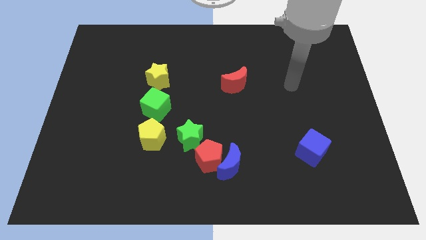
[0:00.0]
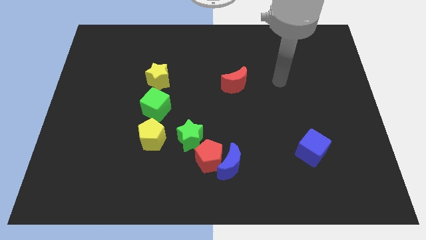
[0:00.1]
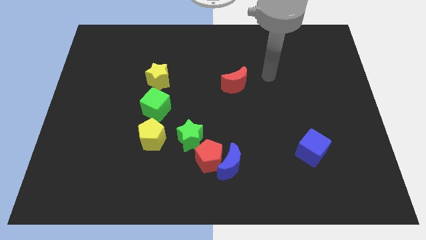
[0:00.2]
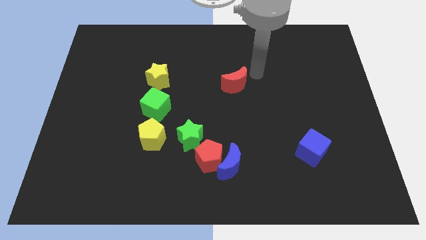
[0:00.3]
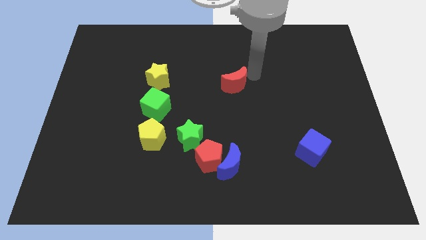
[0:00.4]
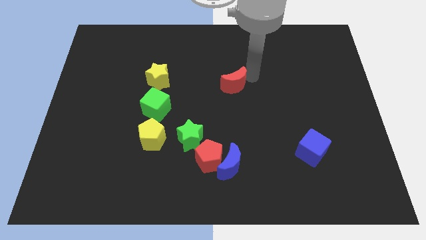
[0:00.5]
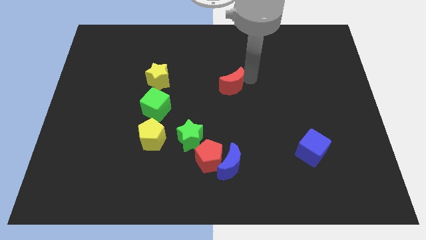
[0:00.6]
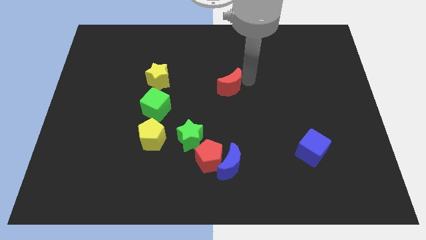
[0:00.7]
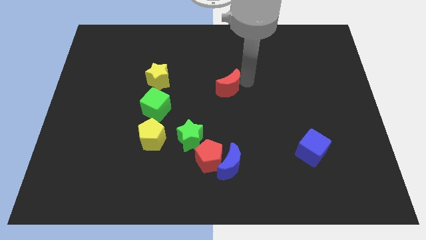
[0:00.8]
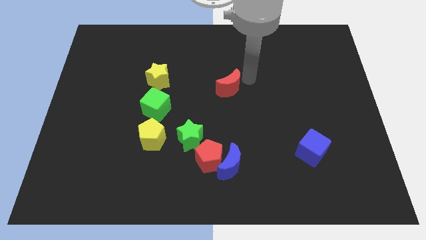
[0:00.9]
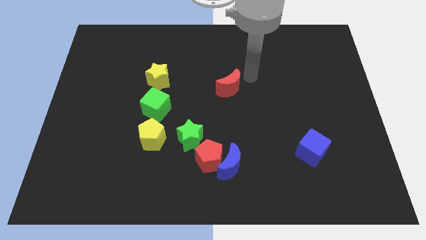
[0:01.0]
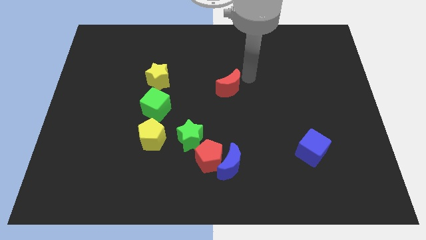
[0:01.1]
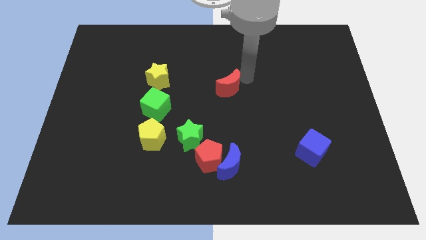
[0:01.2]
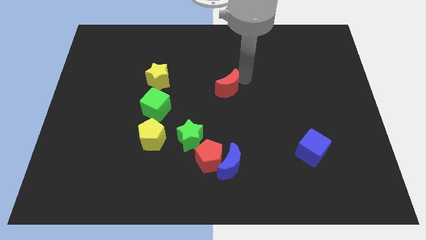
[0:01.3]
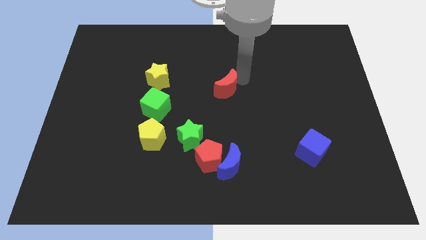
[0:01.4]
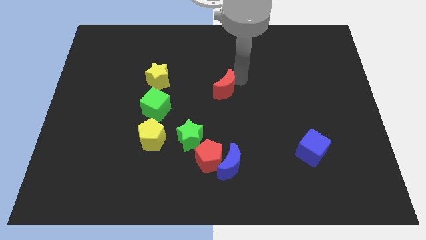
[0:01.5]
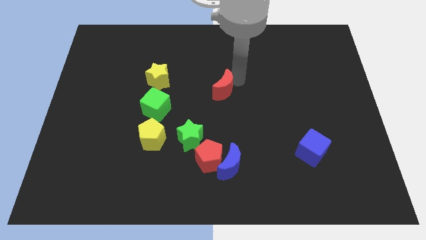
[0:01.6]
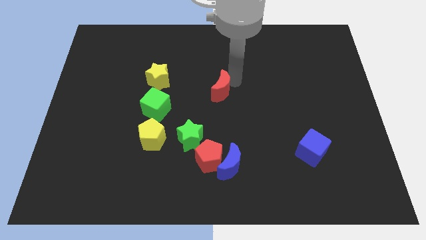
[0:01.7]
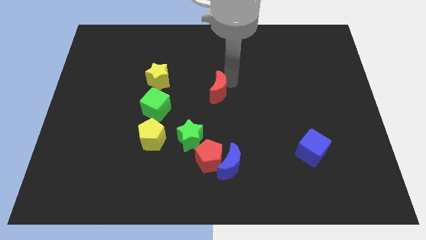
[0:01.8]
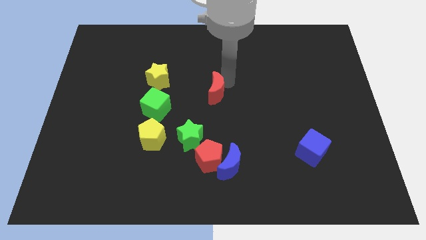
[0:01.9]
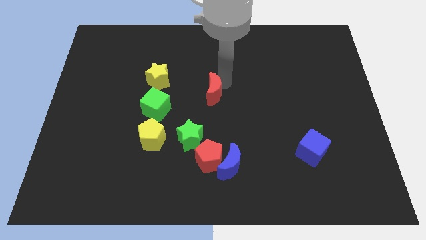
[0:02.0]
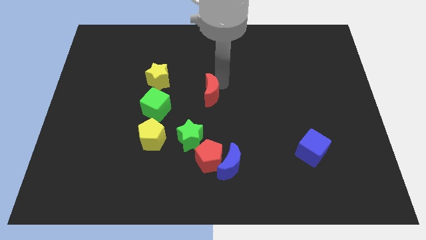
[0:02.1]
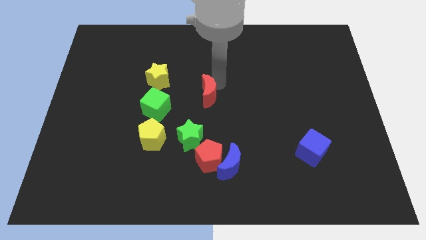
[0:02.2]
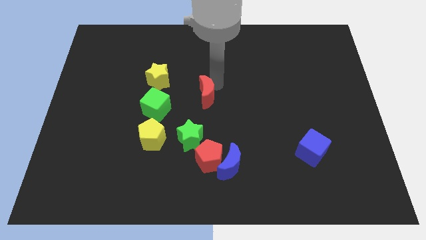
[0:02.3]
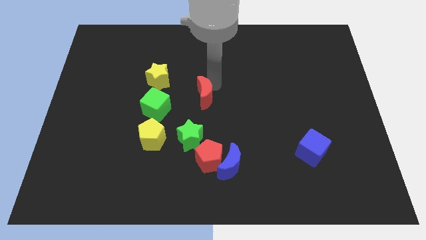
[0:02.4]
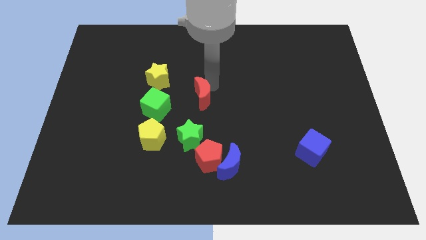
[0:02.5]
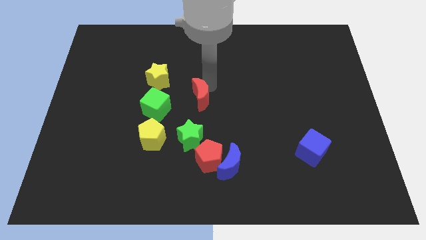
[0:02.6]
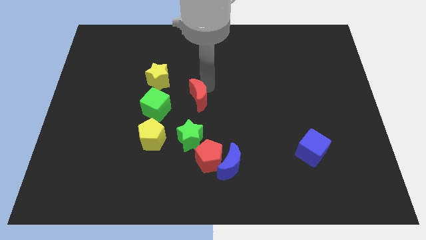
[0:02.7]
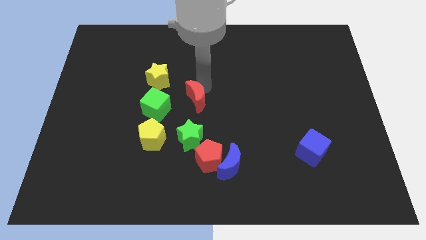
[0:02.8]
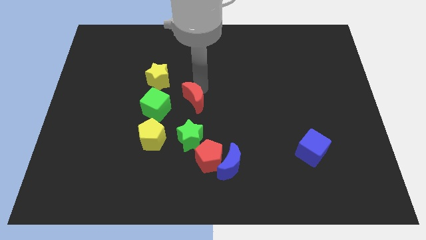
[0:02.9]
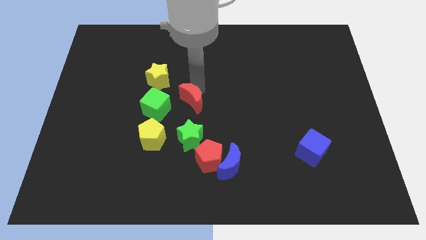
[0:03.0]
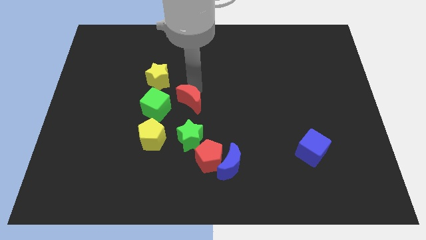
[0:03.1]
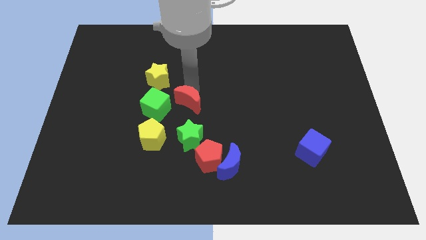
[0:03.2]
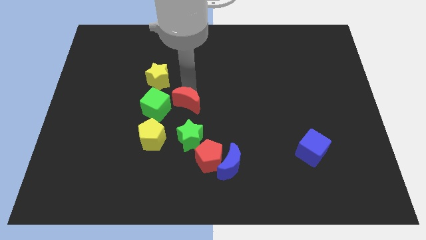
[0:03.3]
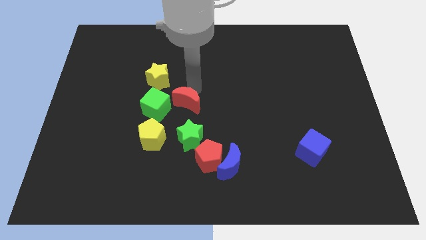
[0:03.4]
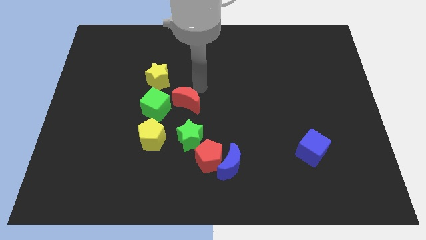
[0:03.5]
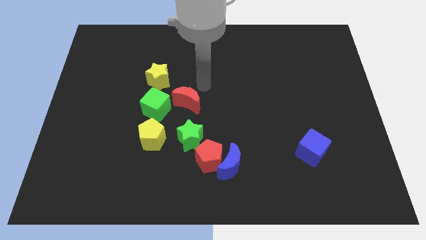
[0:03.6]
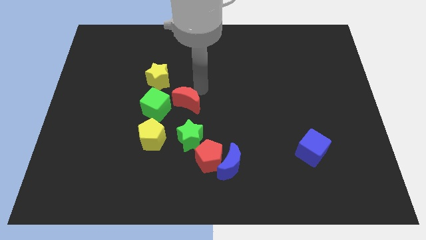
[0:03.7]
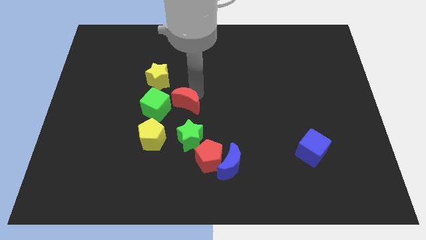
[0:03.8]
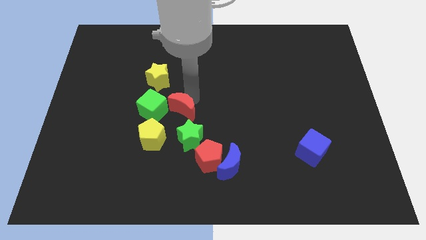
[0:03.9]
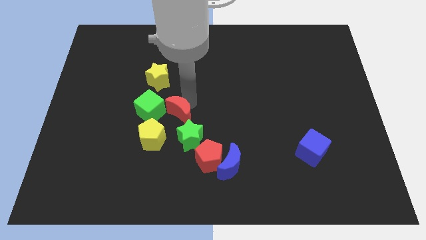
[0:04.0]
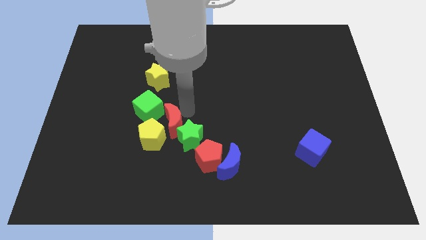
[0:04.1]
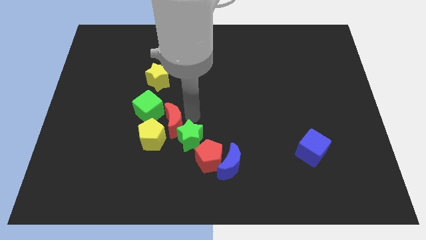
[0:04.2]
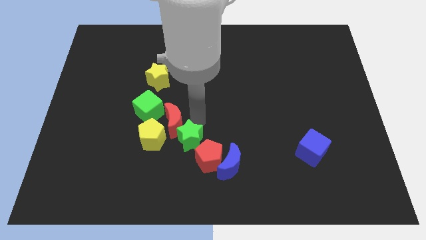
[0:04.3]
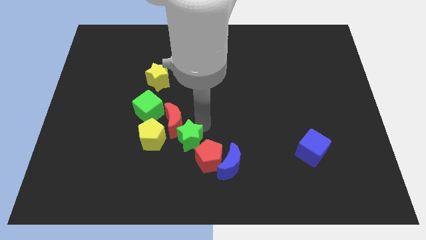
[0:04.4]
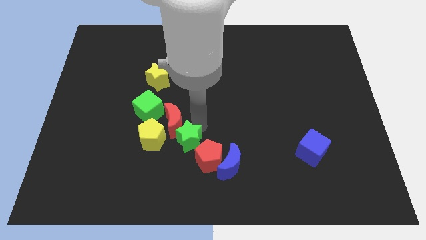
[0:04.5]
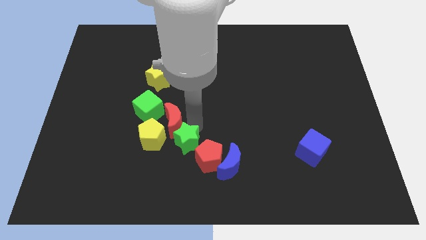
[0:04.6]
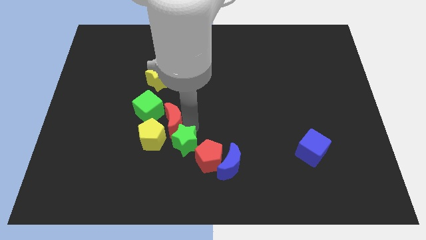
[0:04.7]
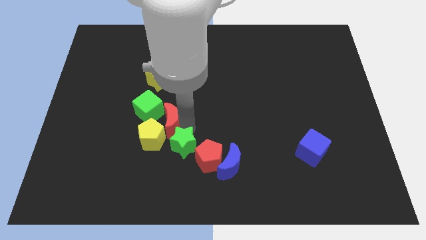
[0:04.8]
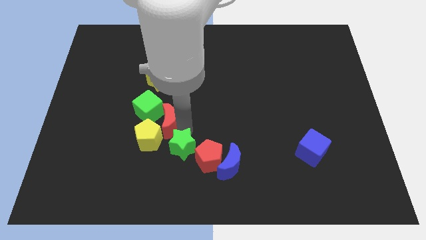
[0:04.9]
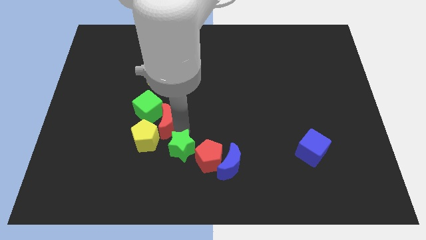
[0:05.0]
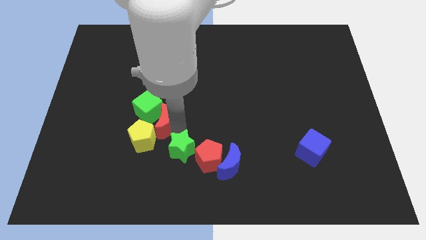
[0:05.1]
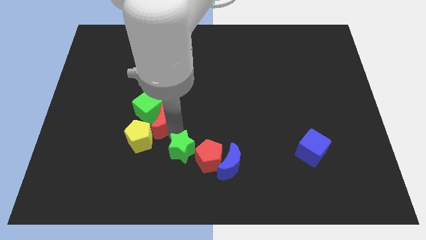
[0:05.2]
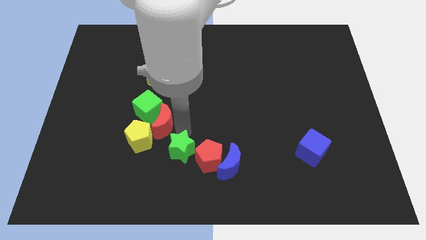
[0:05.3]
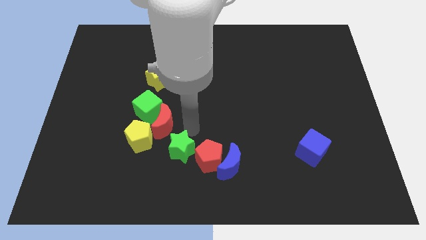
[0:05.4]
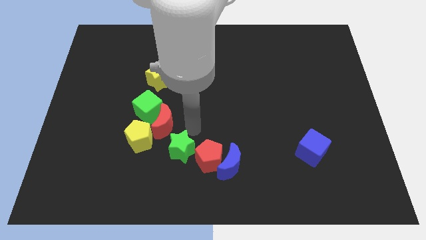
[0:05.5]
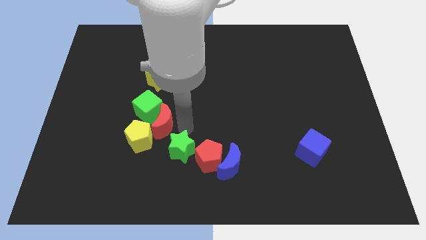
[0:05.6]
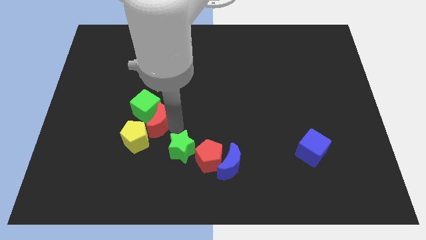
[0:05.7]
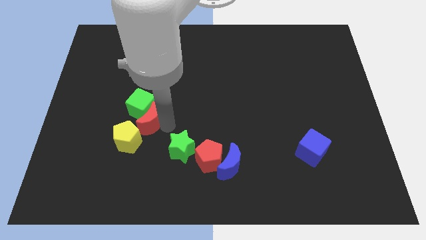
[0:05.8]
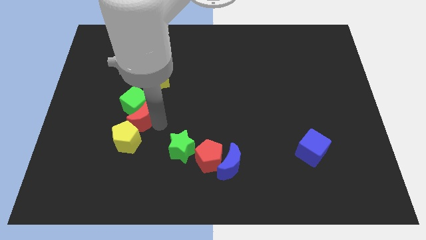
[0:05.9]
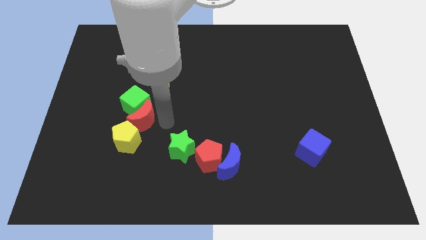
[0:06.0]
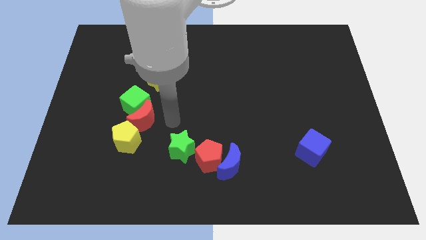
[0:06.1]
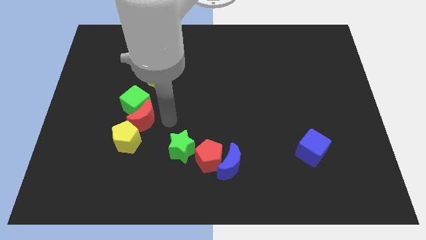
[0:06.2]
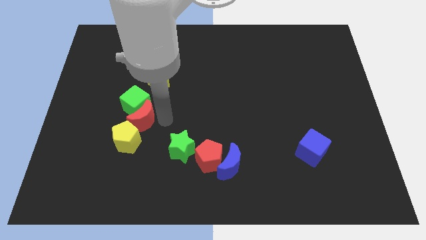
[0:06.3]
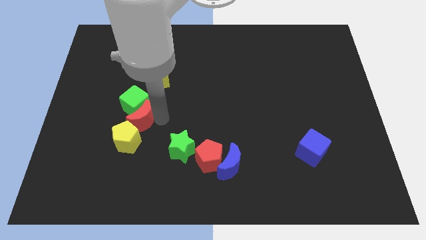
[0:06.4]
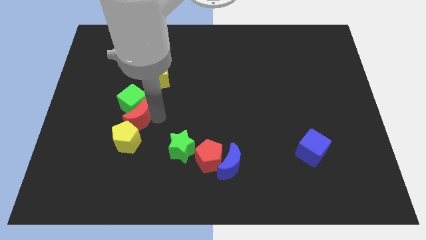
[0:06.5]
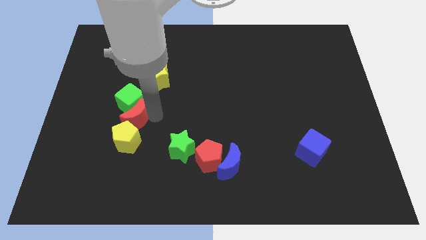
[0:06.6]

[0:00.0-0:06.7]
slide the red moon diagonally up and to the left of the yellow pentagon

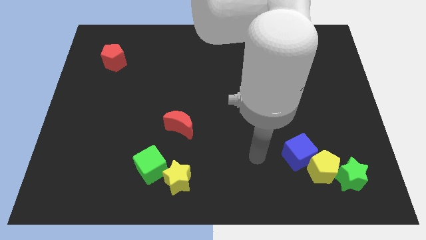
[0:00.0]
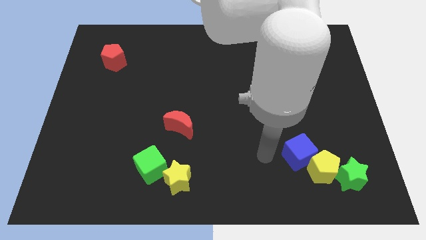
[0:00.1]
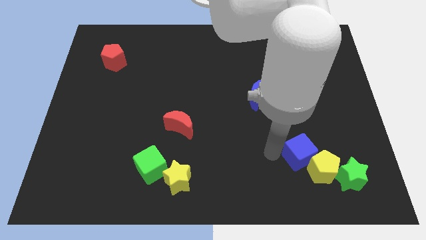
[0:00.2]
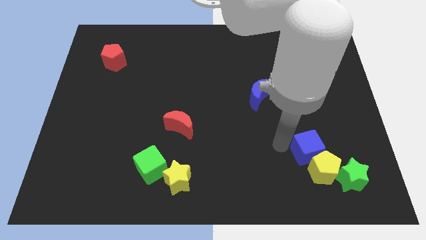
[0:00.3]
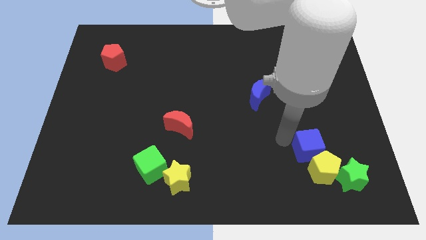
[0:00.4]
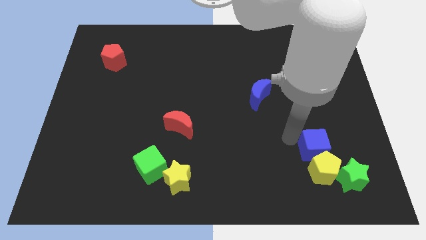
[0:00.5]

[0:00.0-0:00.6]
move the yellow pentagon diagonally down and to the left of the blue cube
